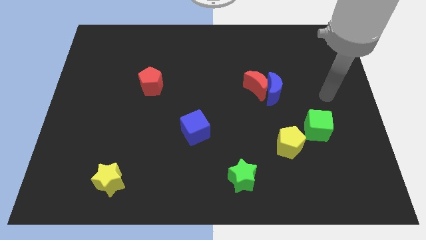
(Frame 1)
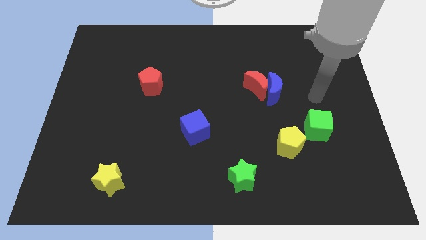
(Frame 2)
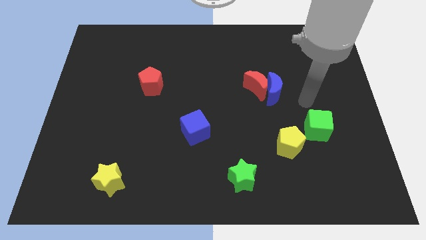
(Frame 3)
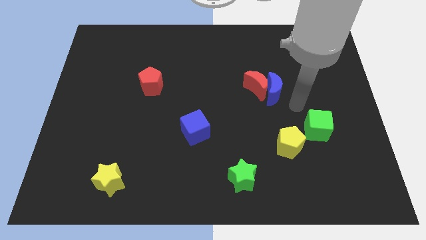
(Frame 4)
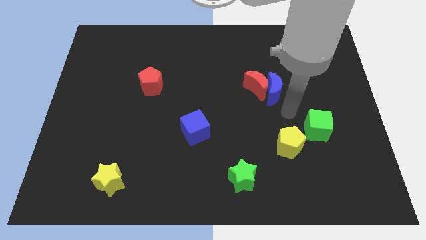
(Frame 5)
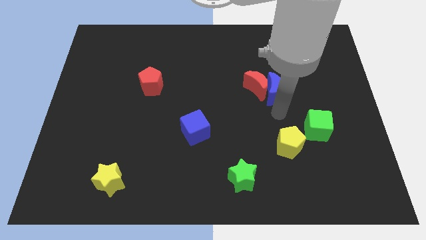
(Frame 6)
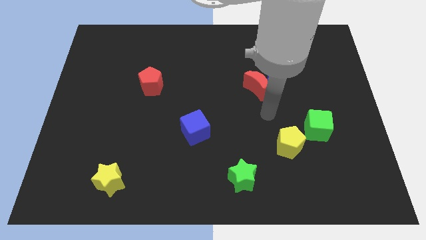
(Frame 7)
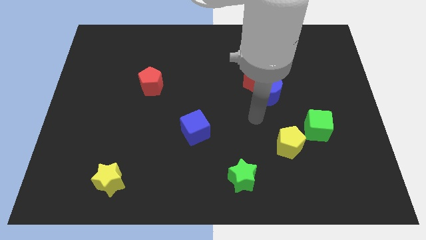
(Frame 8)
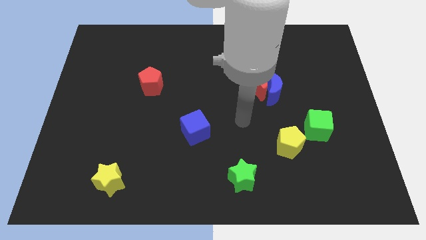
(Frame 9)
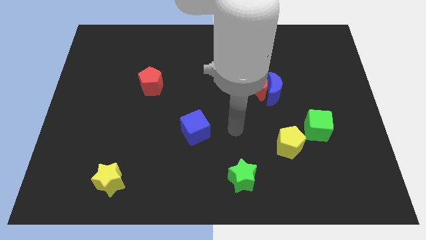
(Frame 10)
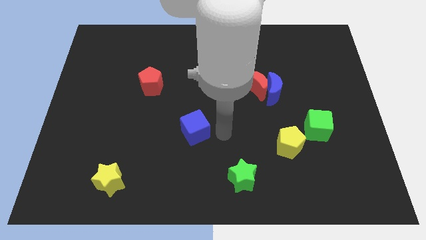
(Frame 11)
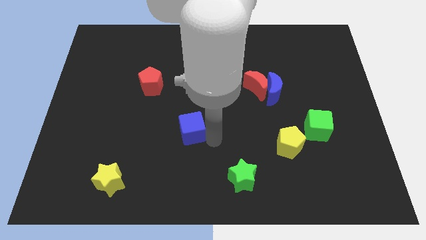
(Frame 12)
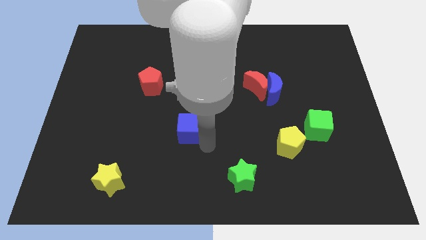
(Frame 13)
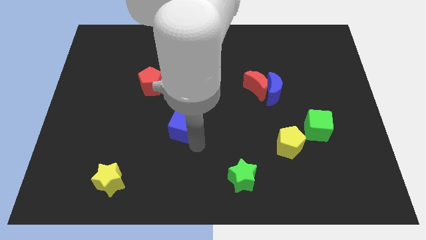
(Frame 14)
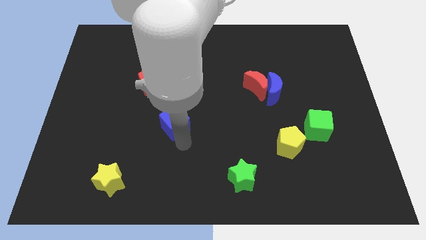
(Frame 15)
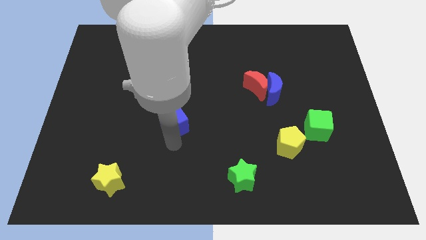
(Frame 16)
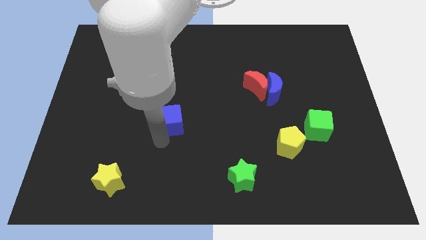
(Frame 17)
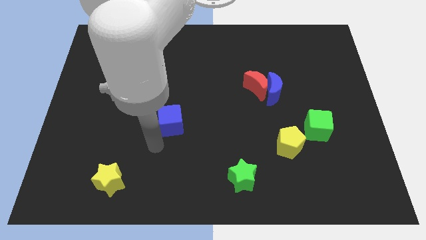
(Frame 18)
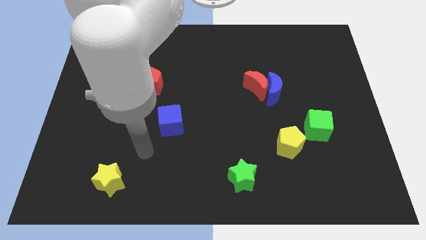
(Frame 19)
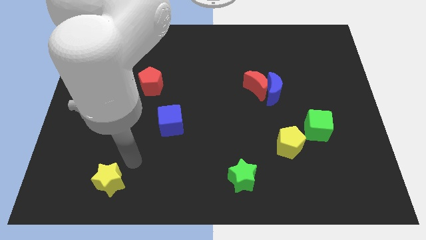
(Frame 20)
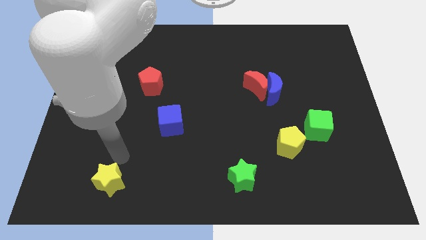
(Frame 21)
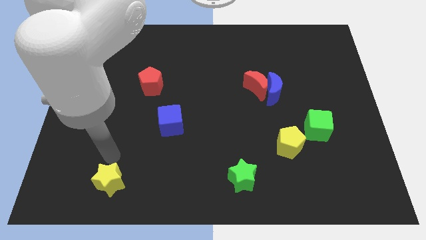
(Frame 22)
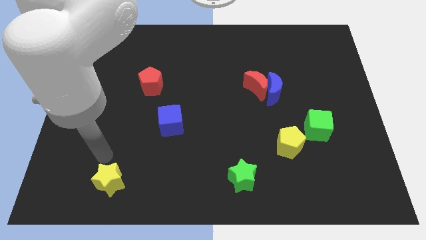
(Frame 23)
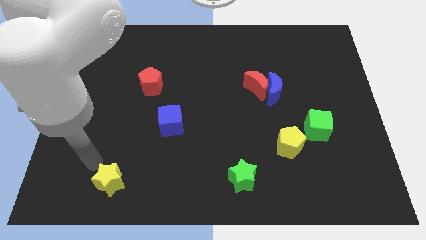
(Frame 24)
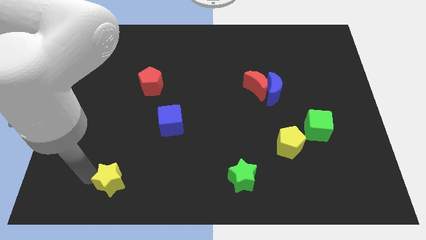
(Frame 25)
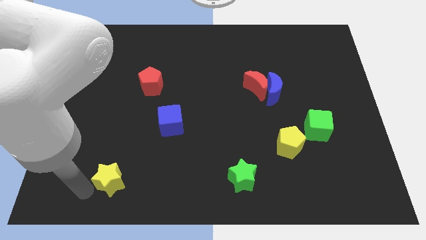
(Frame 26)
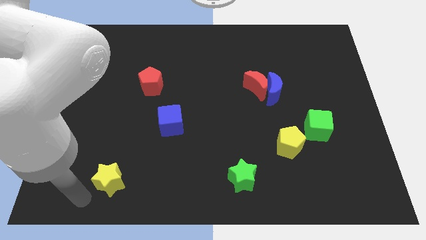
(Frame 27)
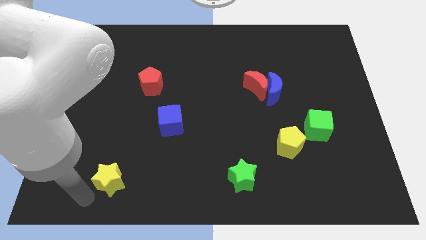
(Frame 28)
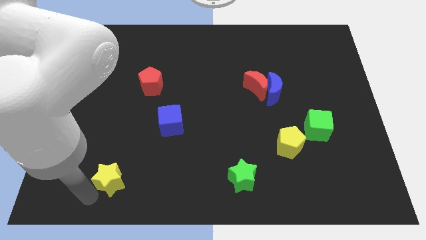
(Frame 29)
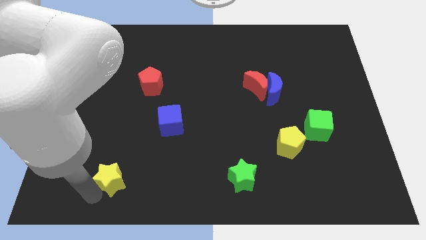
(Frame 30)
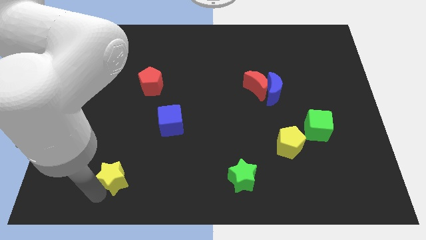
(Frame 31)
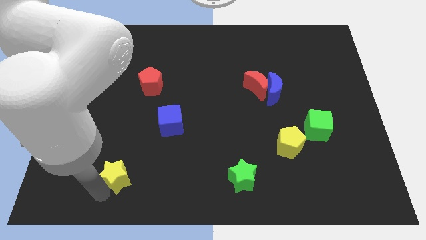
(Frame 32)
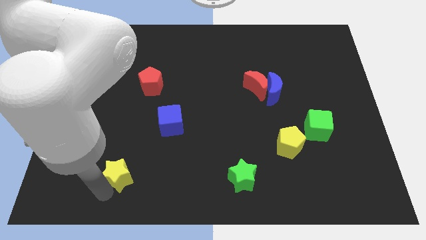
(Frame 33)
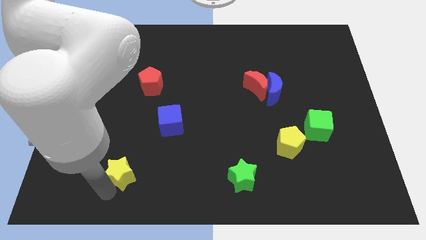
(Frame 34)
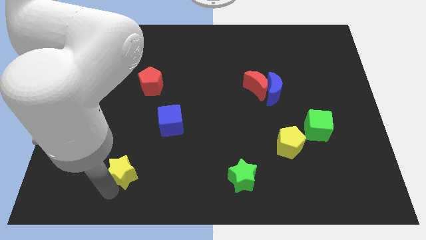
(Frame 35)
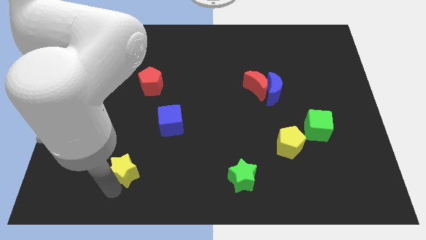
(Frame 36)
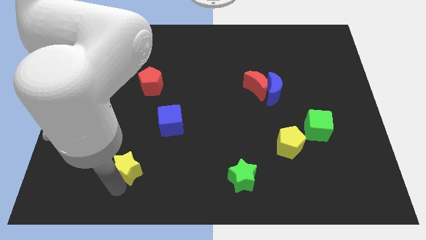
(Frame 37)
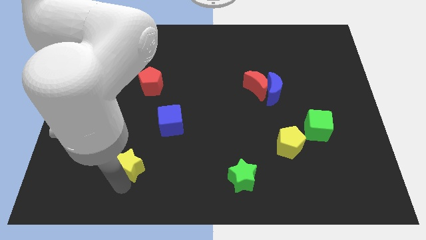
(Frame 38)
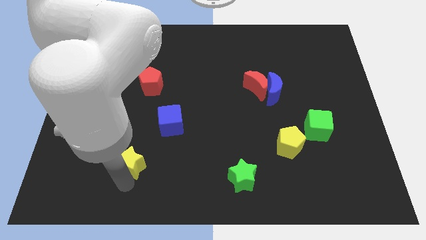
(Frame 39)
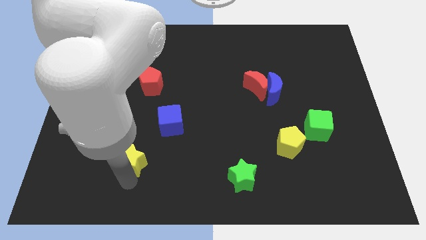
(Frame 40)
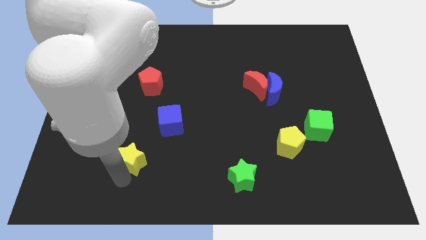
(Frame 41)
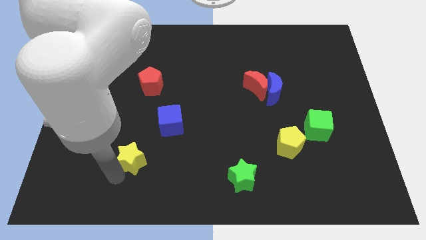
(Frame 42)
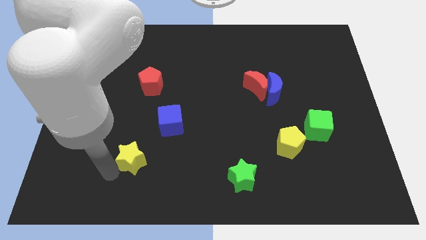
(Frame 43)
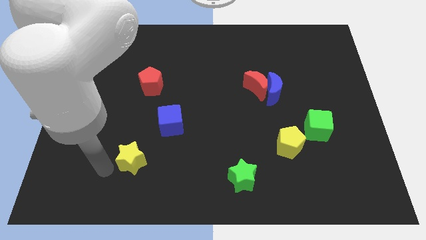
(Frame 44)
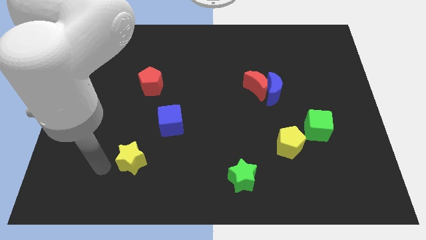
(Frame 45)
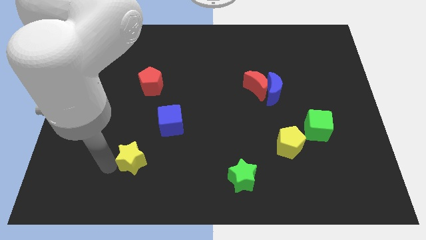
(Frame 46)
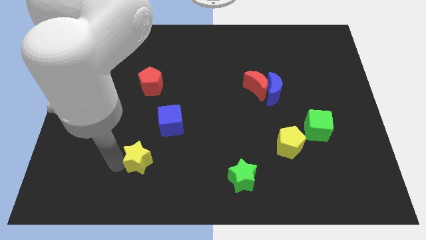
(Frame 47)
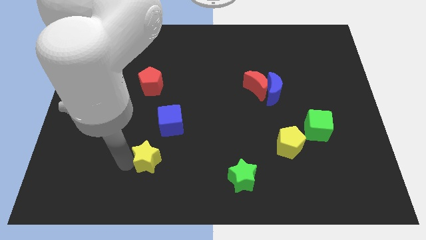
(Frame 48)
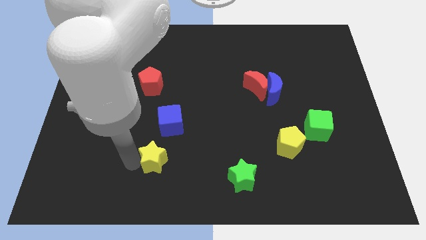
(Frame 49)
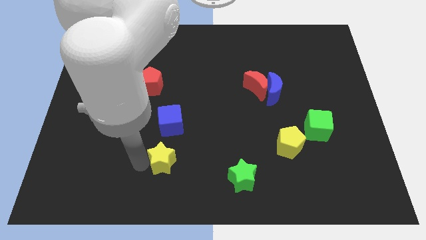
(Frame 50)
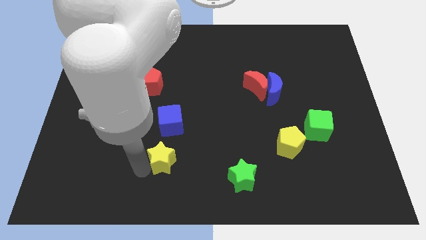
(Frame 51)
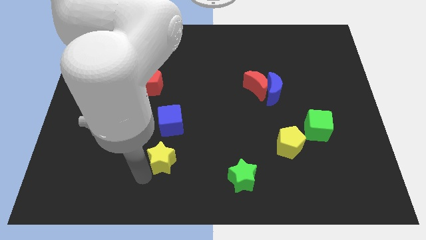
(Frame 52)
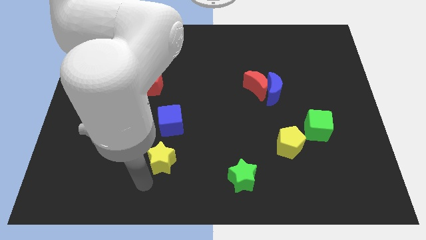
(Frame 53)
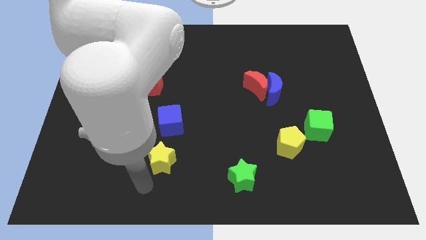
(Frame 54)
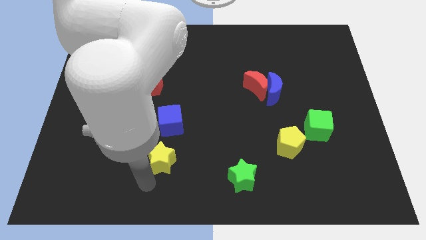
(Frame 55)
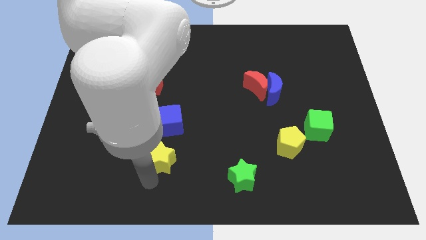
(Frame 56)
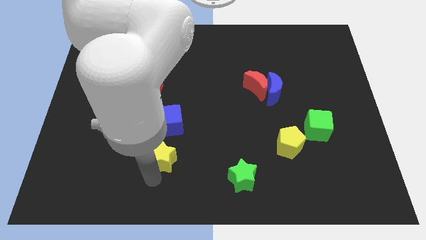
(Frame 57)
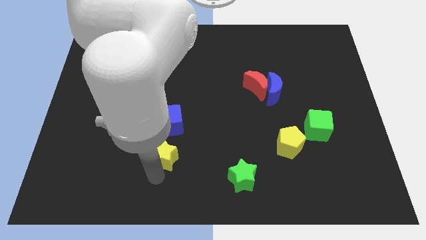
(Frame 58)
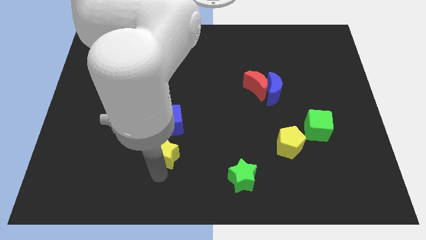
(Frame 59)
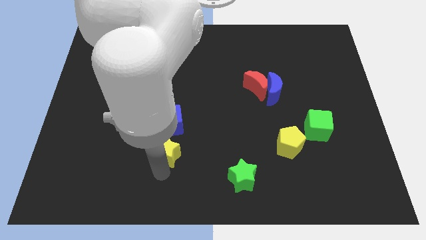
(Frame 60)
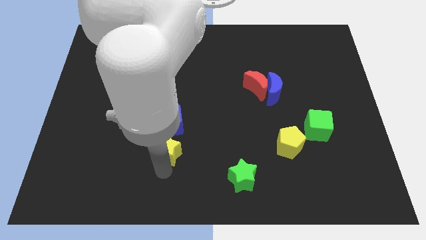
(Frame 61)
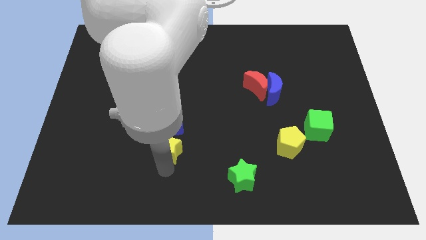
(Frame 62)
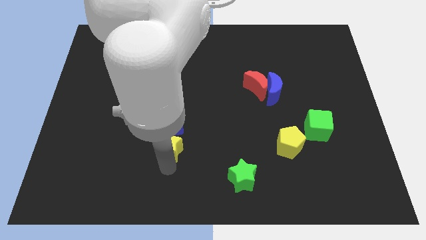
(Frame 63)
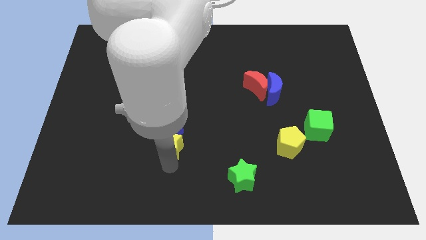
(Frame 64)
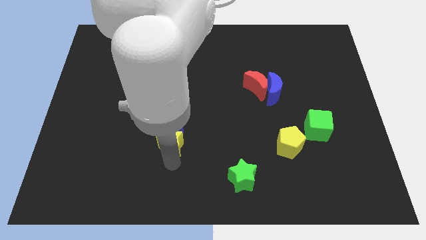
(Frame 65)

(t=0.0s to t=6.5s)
put the yellow star to the blue cube
